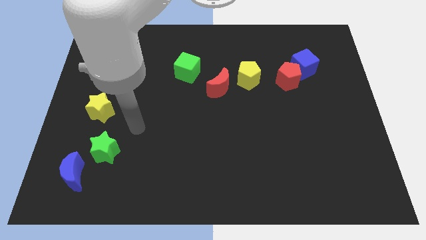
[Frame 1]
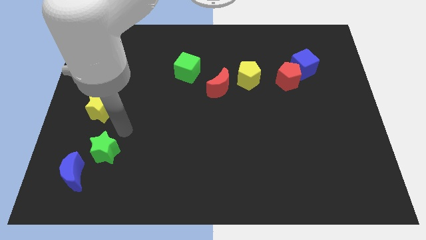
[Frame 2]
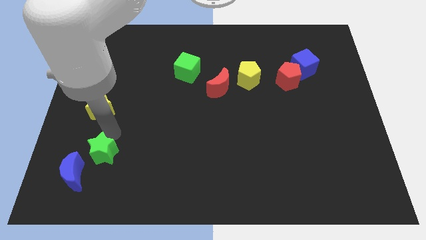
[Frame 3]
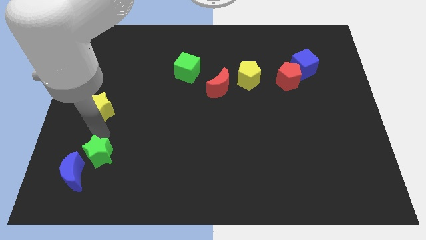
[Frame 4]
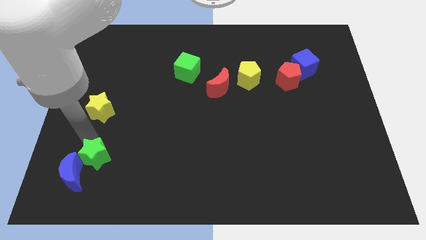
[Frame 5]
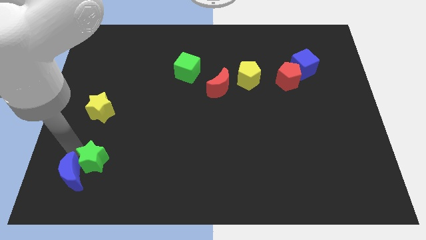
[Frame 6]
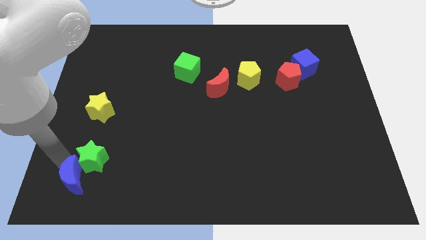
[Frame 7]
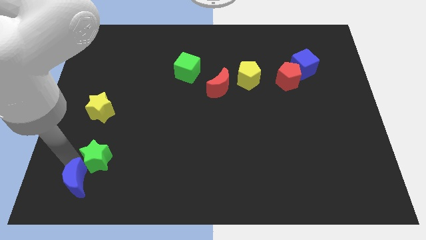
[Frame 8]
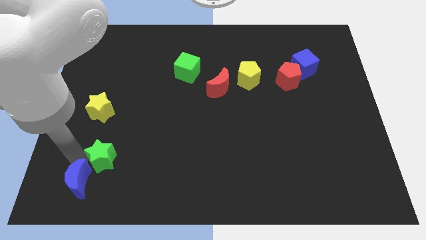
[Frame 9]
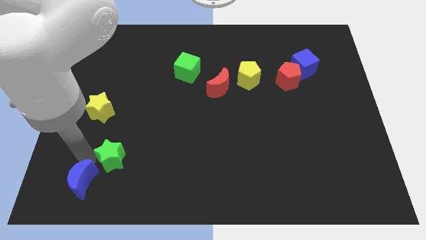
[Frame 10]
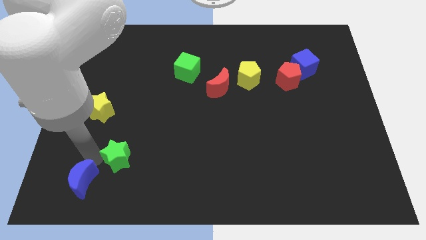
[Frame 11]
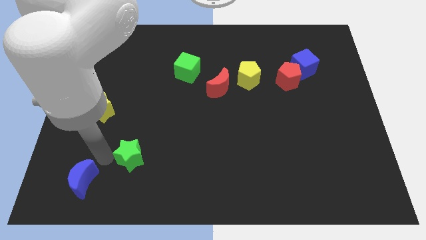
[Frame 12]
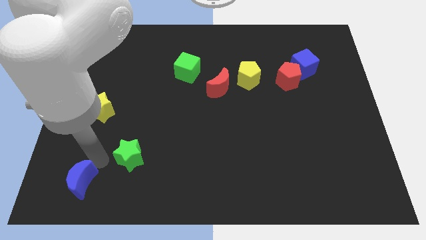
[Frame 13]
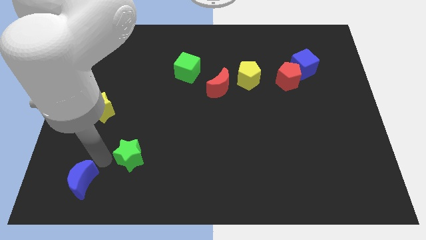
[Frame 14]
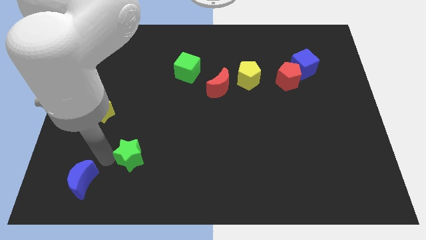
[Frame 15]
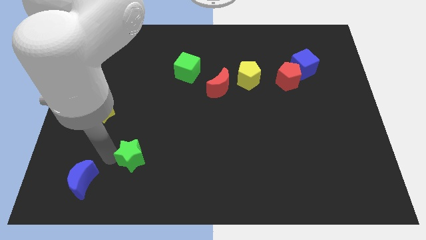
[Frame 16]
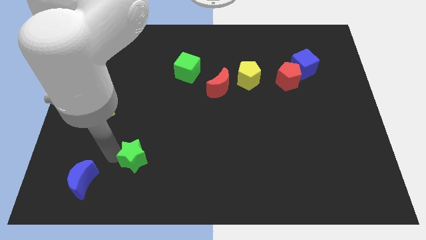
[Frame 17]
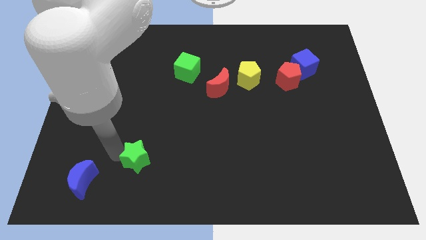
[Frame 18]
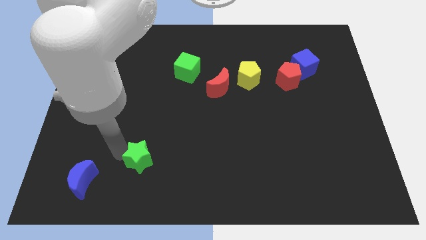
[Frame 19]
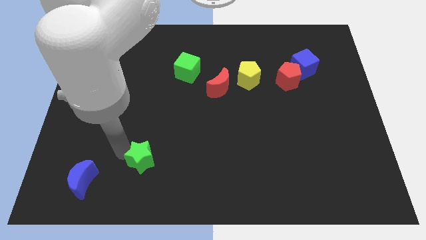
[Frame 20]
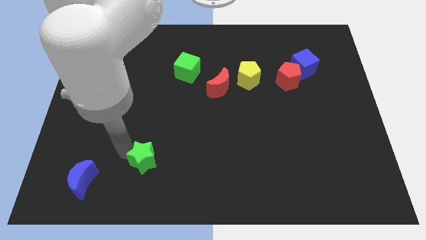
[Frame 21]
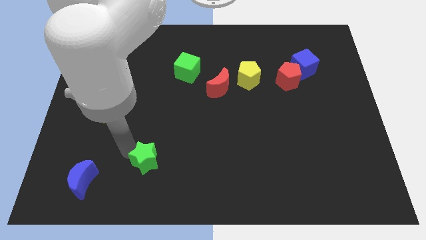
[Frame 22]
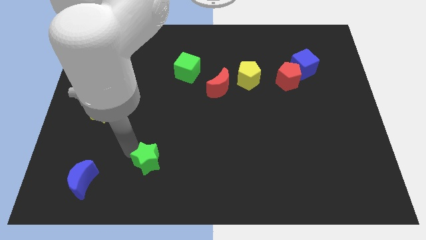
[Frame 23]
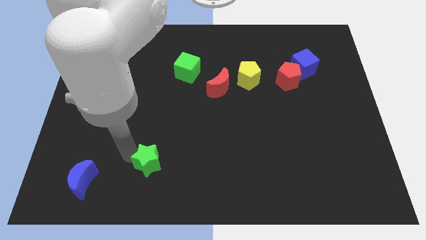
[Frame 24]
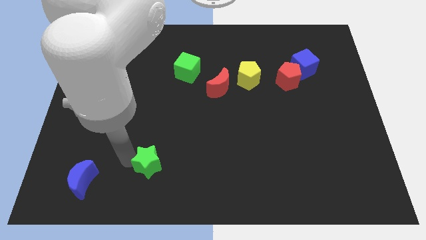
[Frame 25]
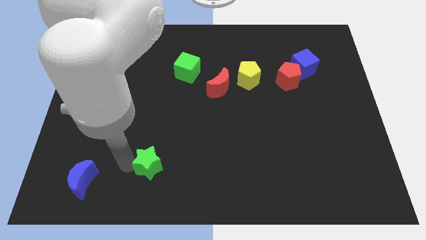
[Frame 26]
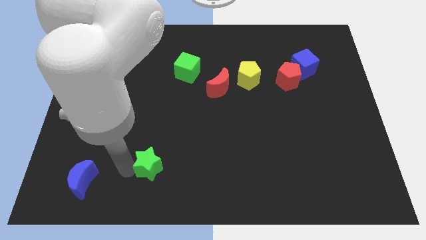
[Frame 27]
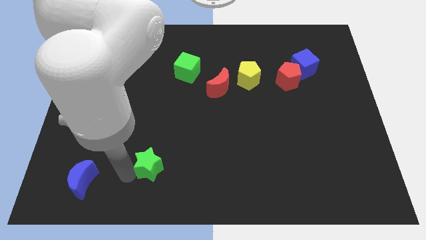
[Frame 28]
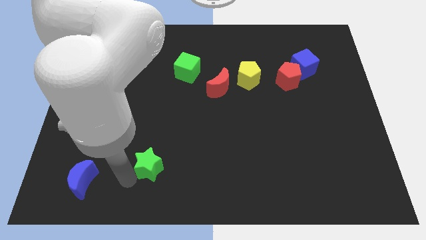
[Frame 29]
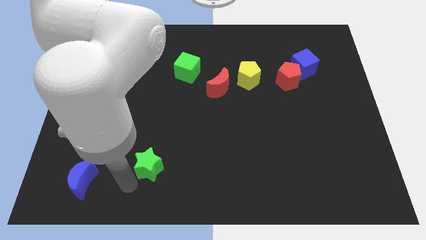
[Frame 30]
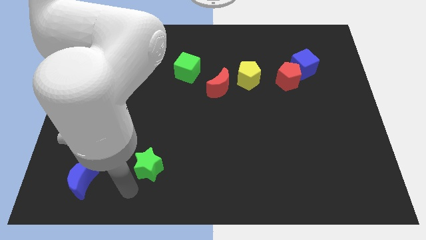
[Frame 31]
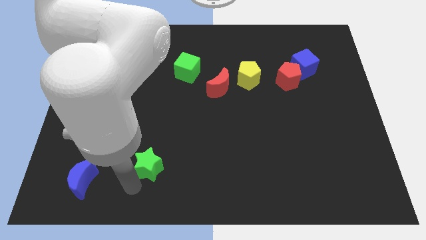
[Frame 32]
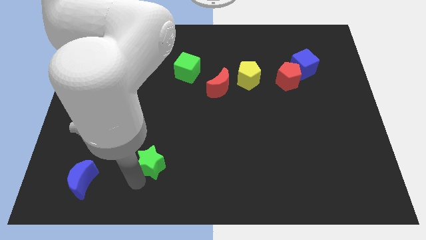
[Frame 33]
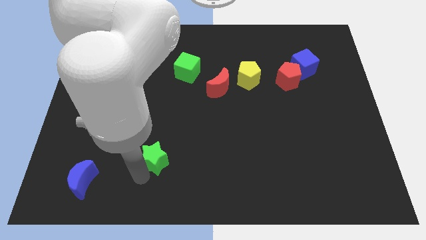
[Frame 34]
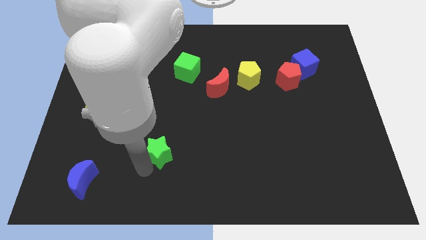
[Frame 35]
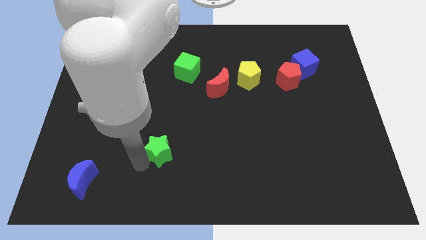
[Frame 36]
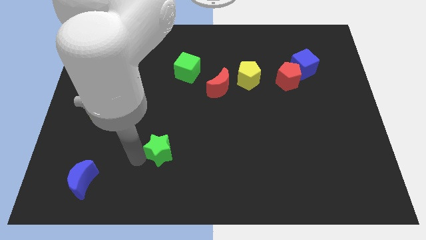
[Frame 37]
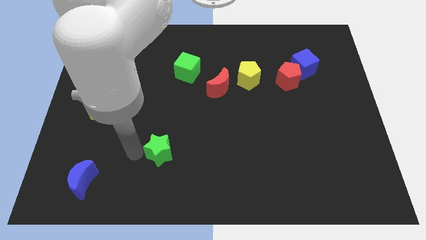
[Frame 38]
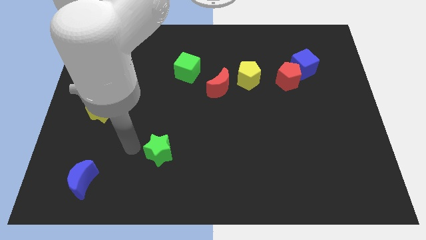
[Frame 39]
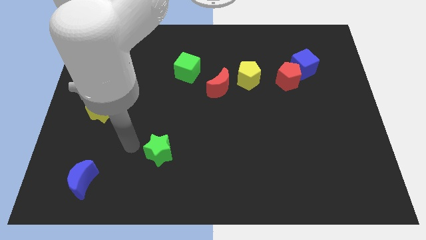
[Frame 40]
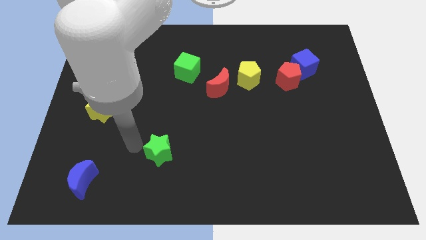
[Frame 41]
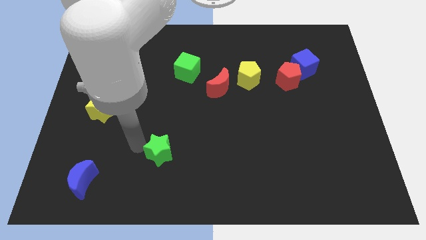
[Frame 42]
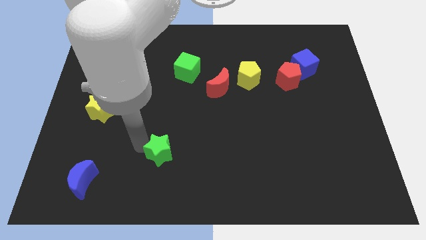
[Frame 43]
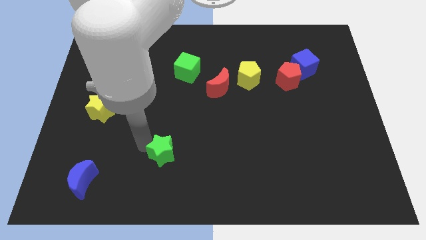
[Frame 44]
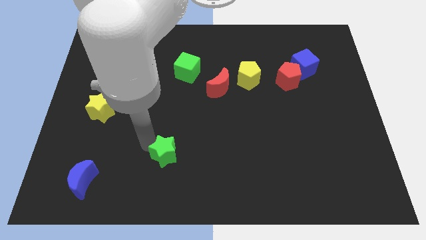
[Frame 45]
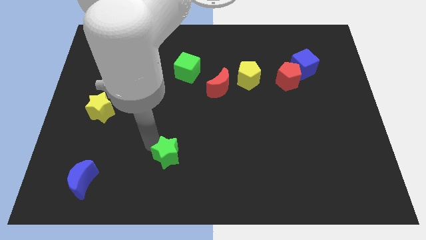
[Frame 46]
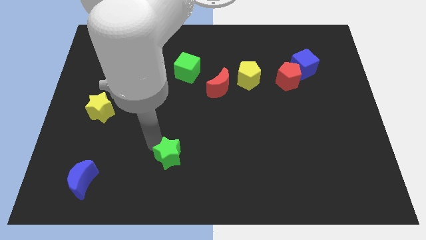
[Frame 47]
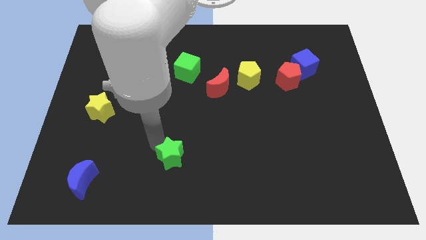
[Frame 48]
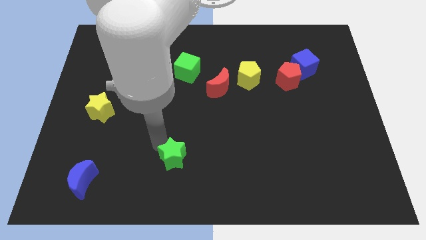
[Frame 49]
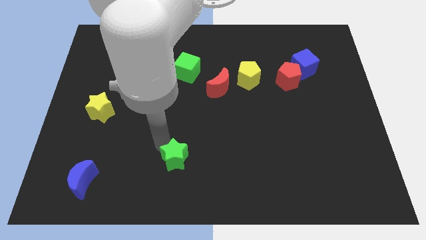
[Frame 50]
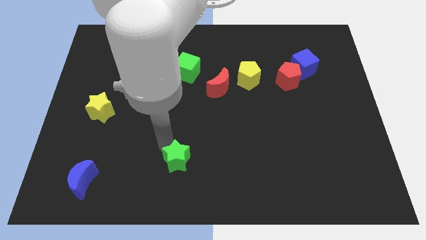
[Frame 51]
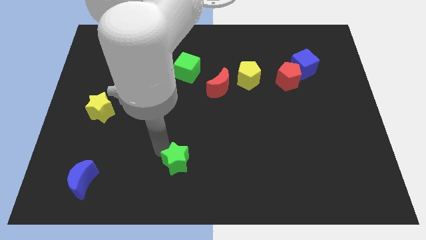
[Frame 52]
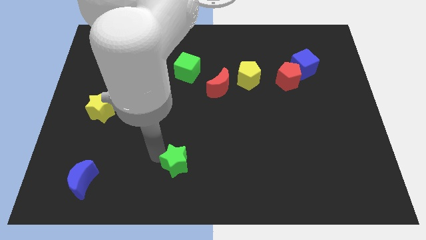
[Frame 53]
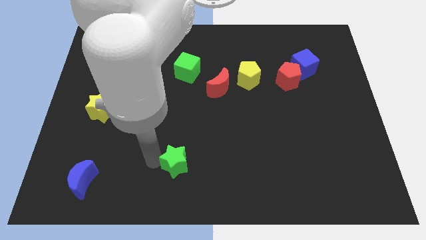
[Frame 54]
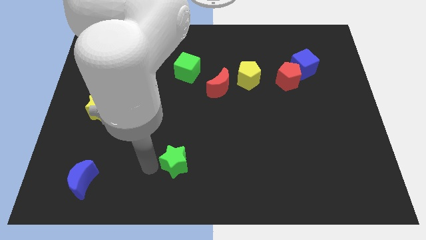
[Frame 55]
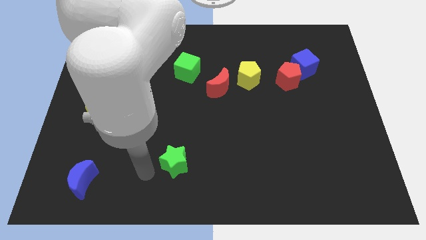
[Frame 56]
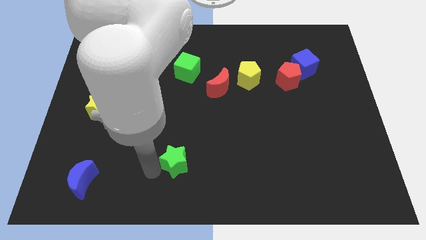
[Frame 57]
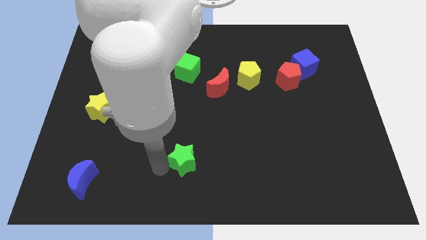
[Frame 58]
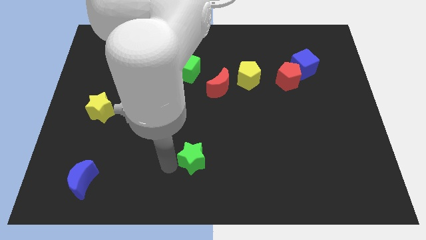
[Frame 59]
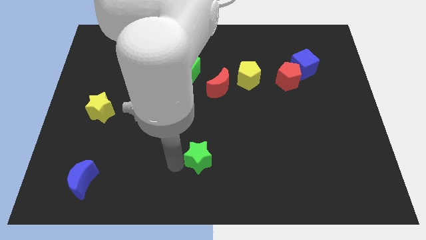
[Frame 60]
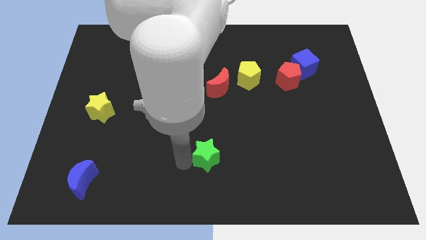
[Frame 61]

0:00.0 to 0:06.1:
move the green star to the right

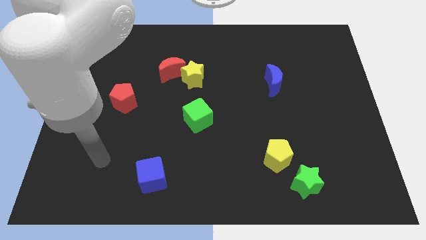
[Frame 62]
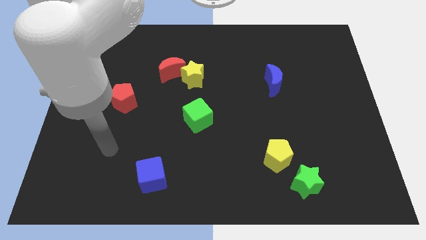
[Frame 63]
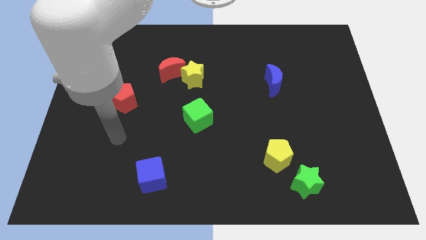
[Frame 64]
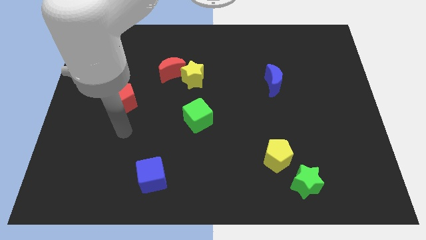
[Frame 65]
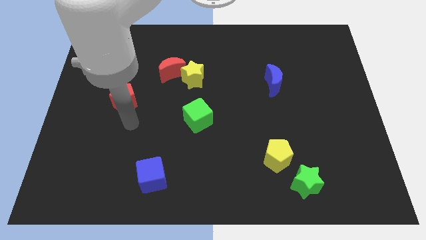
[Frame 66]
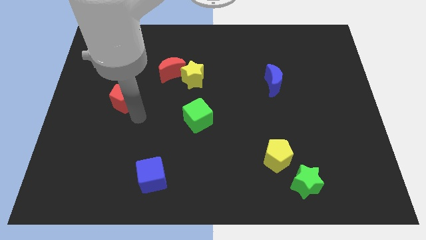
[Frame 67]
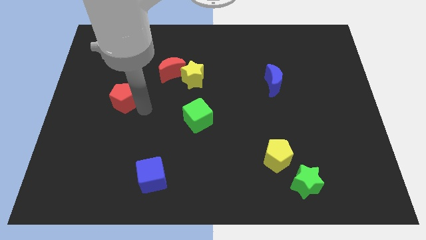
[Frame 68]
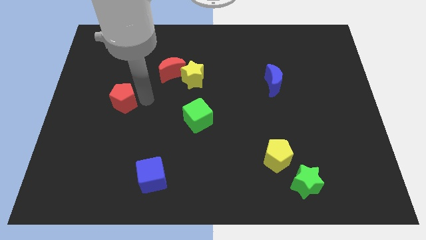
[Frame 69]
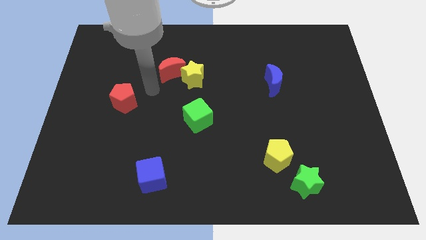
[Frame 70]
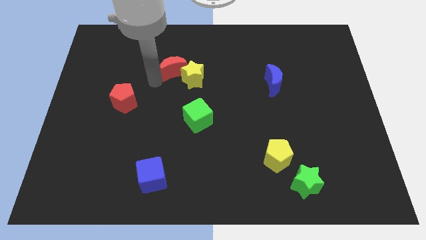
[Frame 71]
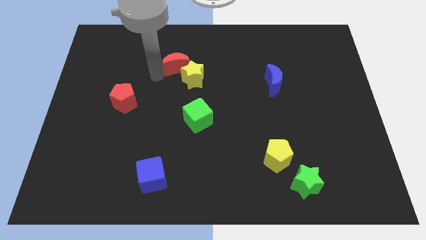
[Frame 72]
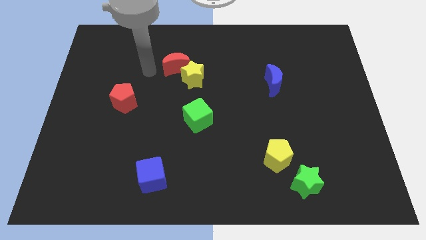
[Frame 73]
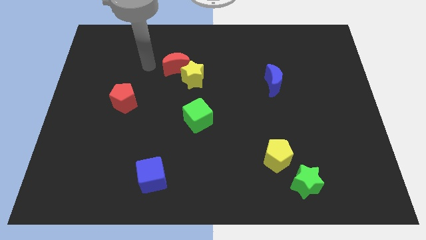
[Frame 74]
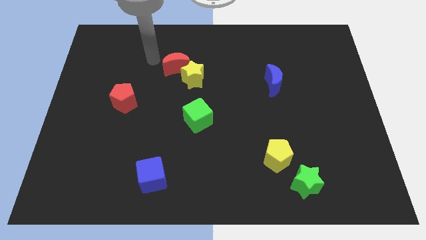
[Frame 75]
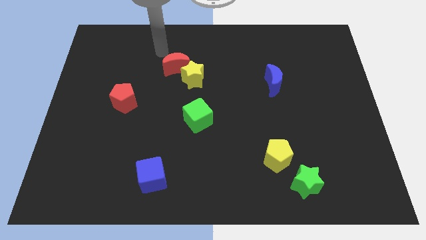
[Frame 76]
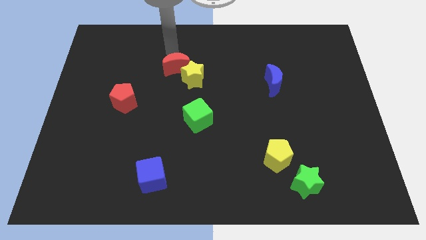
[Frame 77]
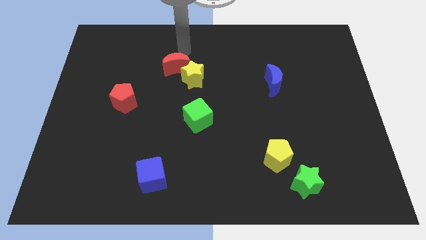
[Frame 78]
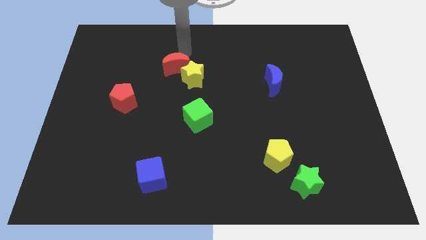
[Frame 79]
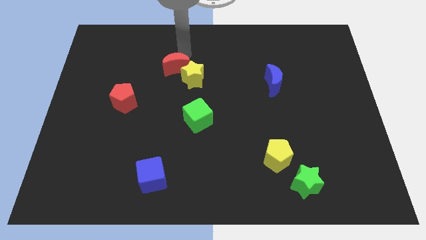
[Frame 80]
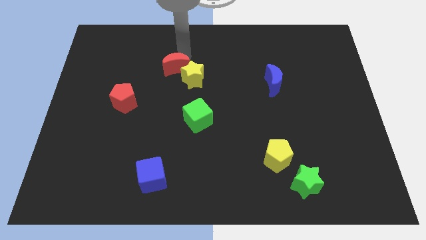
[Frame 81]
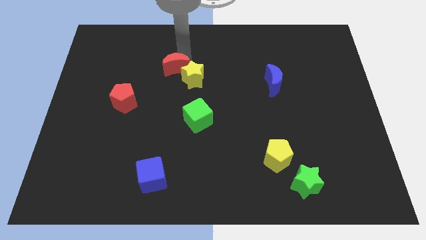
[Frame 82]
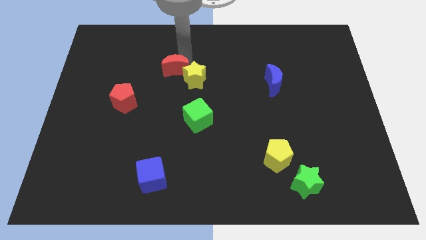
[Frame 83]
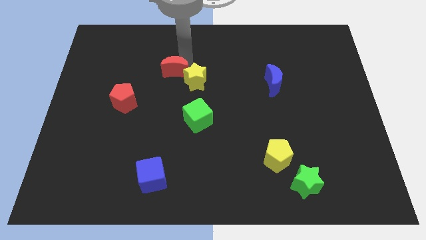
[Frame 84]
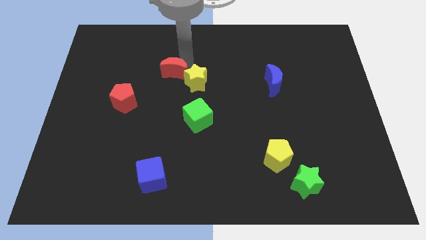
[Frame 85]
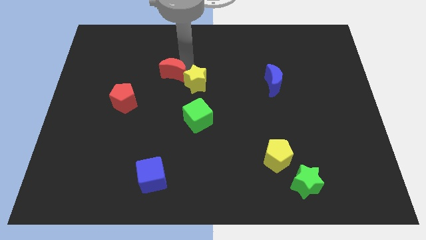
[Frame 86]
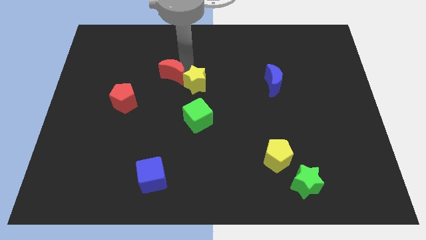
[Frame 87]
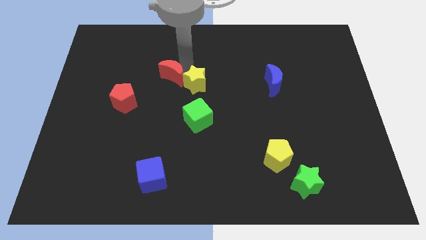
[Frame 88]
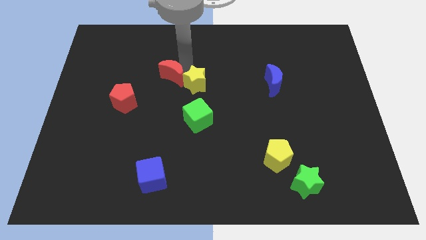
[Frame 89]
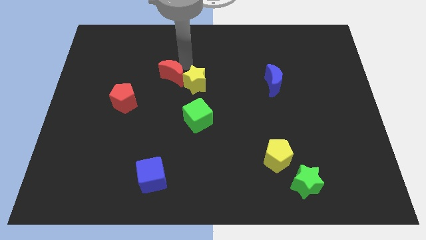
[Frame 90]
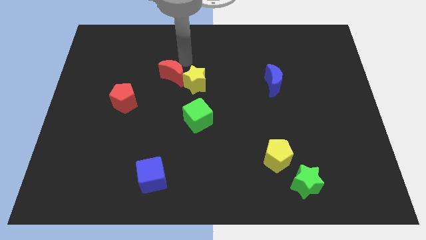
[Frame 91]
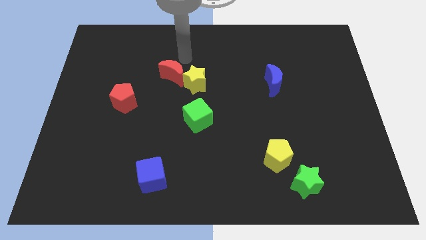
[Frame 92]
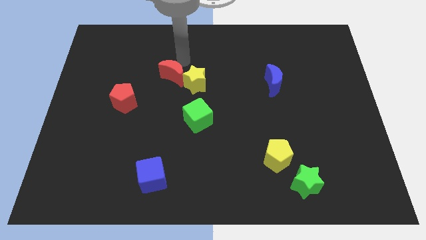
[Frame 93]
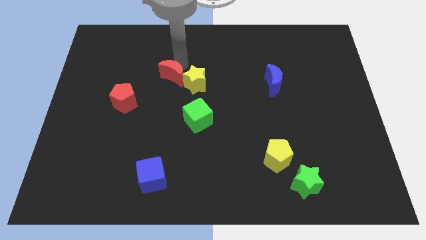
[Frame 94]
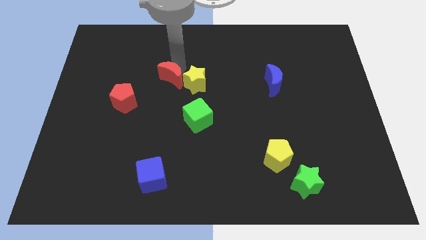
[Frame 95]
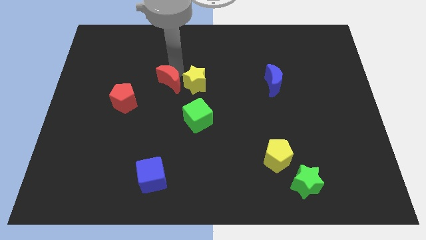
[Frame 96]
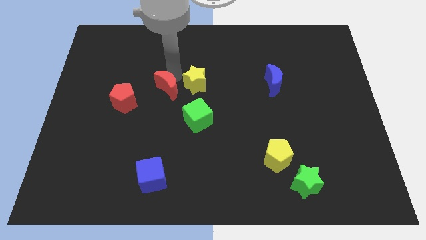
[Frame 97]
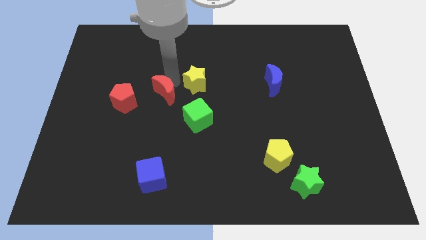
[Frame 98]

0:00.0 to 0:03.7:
slide the red moon a bit downwards
